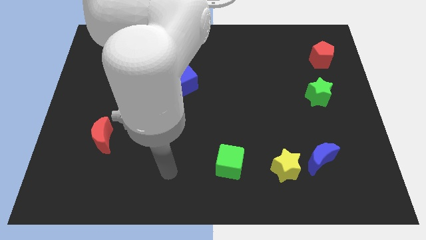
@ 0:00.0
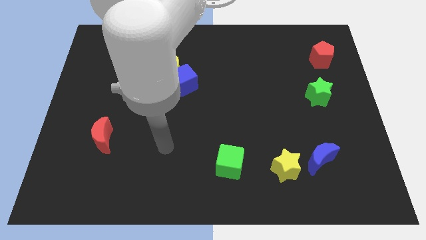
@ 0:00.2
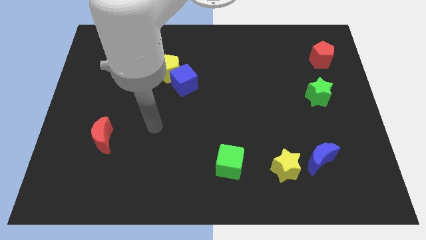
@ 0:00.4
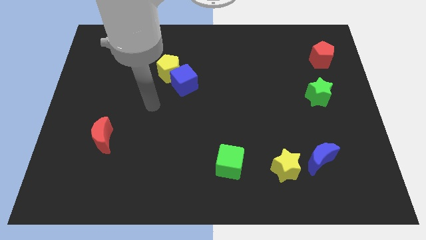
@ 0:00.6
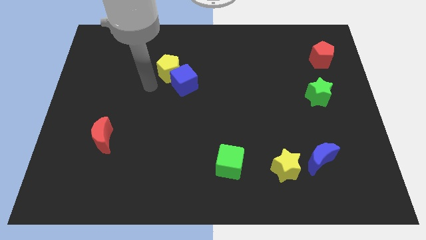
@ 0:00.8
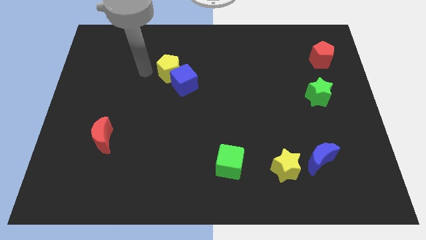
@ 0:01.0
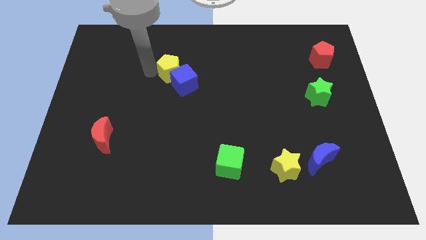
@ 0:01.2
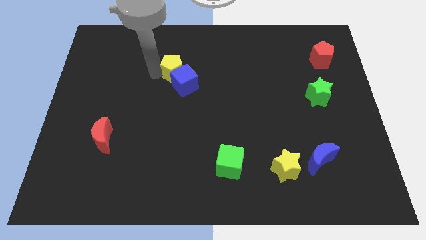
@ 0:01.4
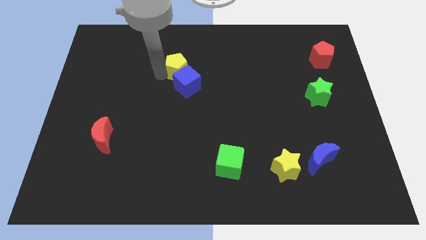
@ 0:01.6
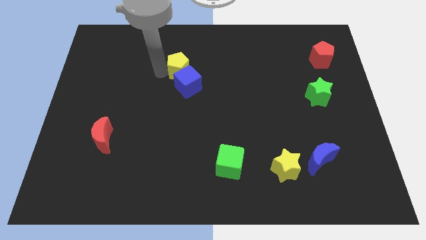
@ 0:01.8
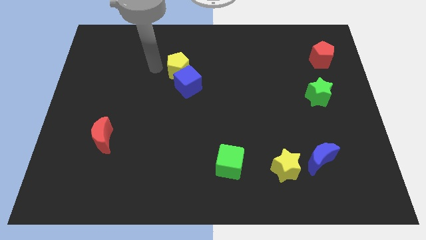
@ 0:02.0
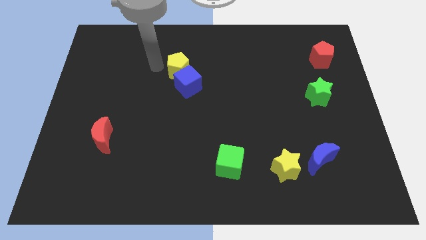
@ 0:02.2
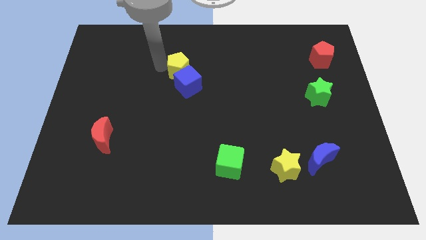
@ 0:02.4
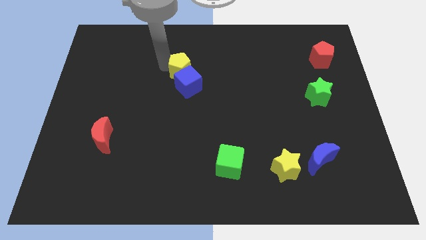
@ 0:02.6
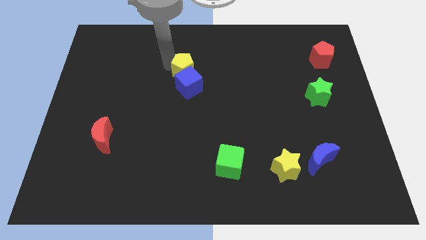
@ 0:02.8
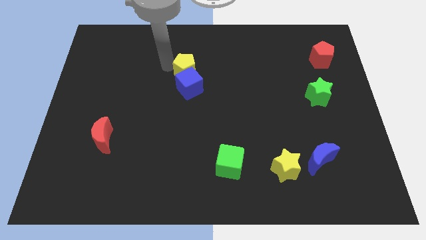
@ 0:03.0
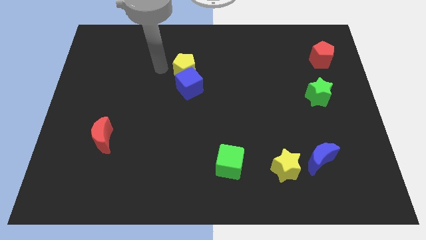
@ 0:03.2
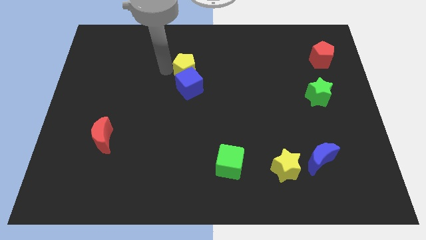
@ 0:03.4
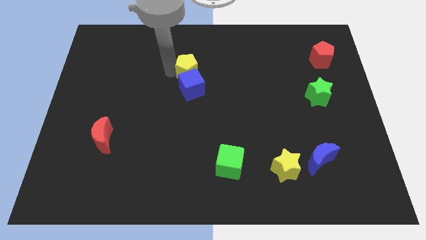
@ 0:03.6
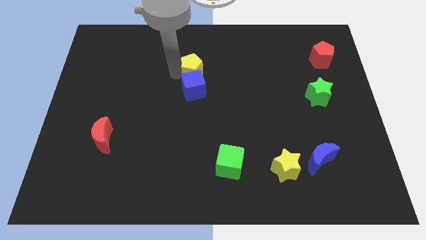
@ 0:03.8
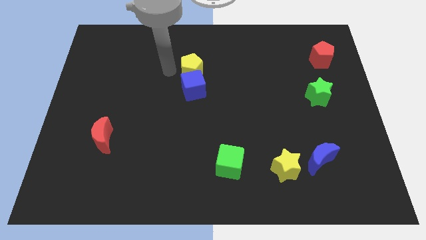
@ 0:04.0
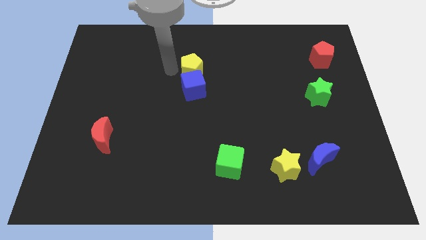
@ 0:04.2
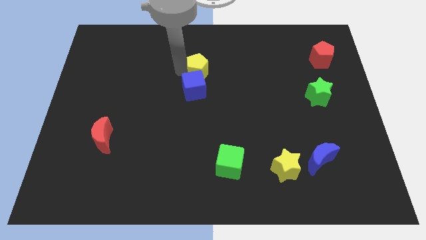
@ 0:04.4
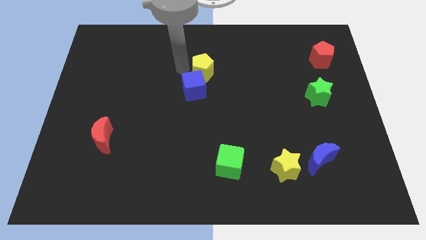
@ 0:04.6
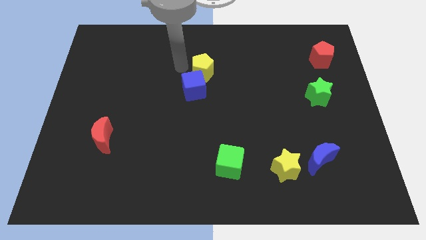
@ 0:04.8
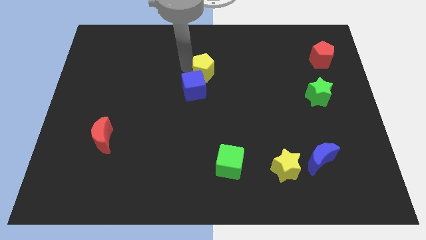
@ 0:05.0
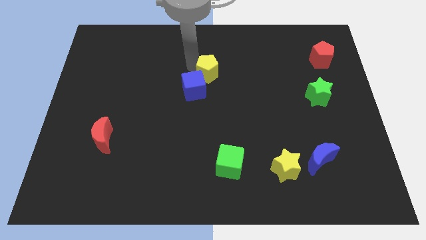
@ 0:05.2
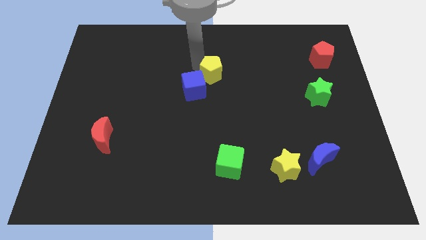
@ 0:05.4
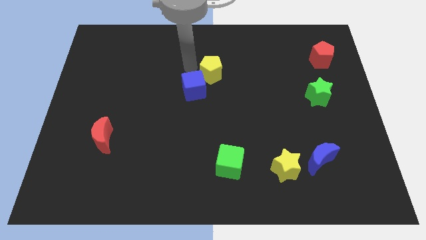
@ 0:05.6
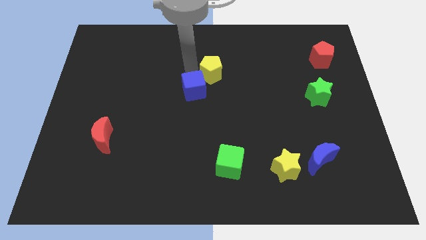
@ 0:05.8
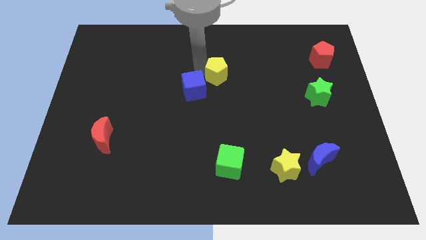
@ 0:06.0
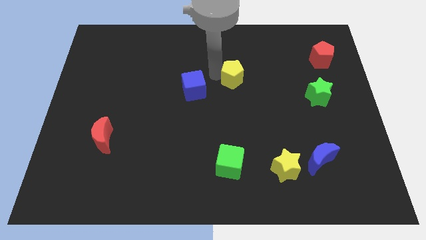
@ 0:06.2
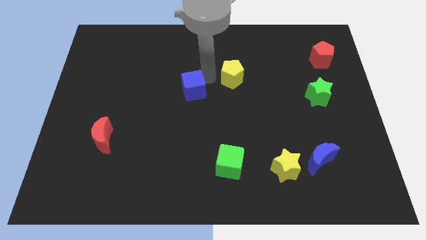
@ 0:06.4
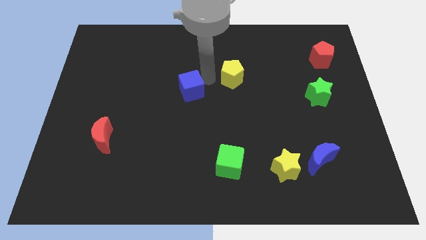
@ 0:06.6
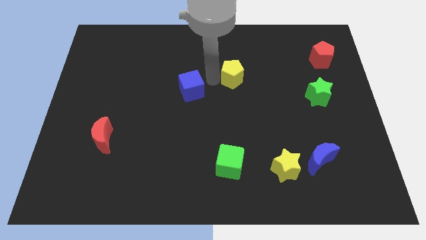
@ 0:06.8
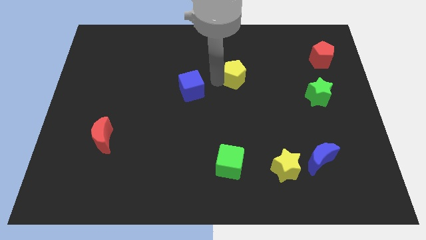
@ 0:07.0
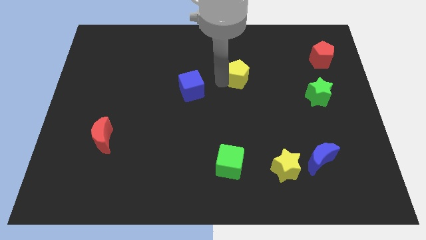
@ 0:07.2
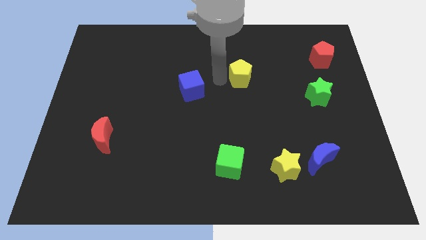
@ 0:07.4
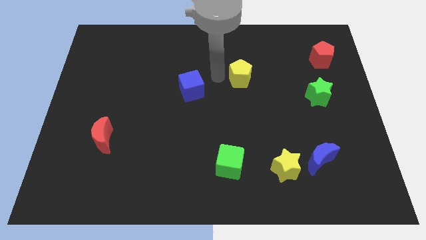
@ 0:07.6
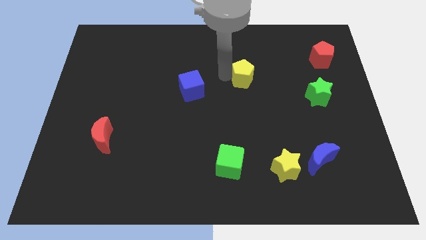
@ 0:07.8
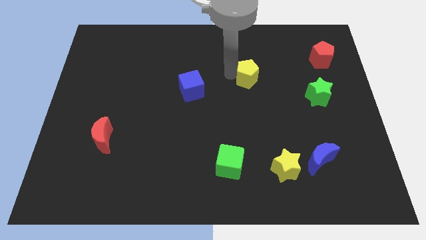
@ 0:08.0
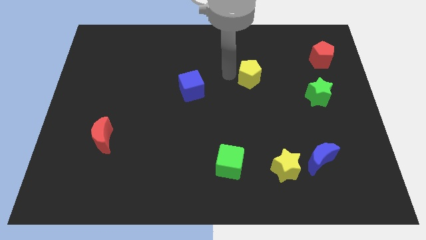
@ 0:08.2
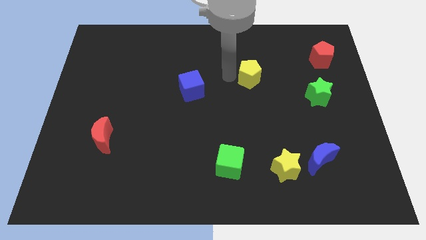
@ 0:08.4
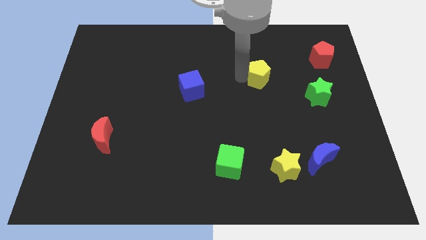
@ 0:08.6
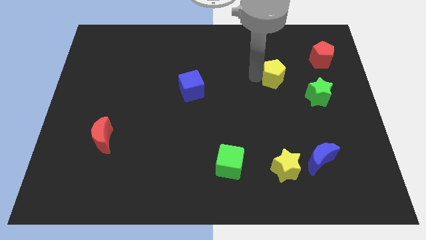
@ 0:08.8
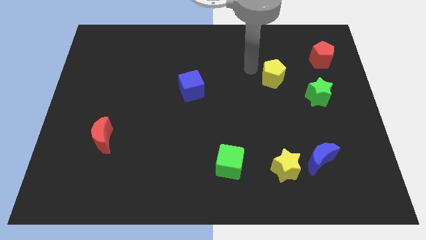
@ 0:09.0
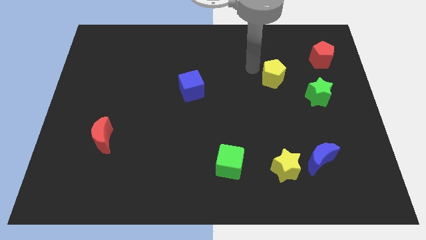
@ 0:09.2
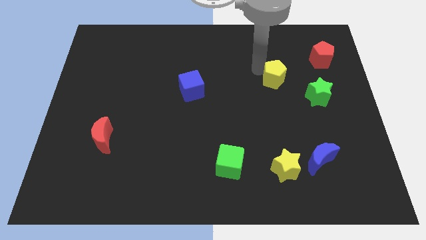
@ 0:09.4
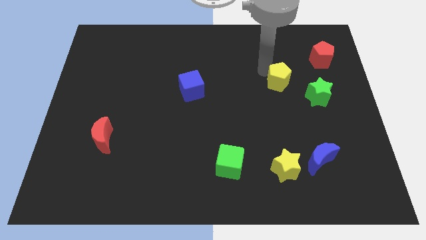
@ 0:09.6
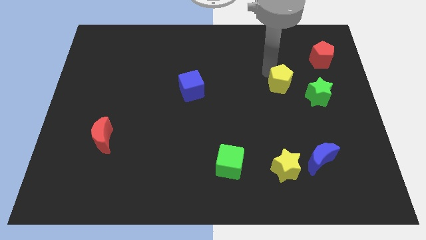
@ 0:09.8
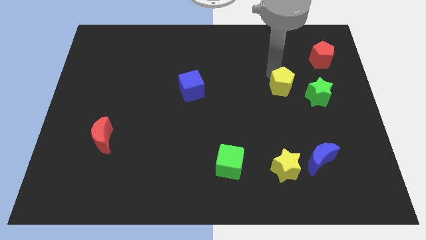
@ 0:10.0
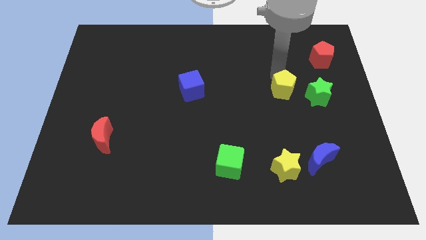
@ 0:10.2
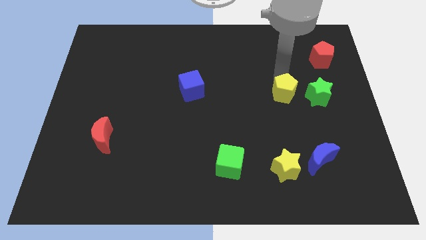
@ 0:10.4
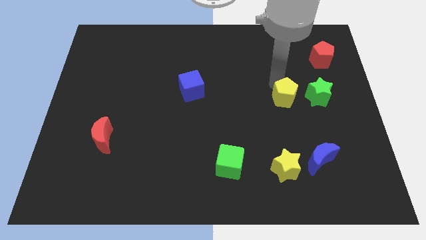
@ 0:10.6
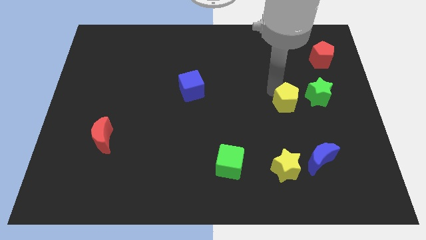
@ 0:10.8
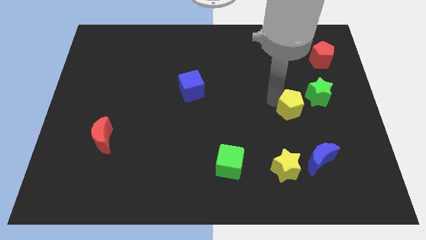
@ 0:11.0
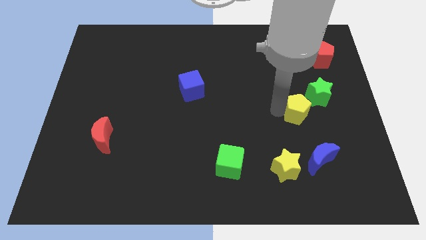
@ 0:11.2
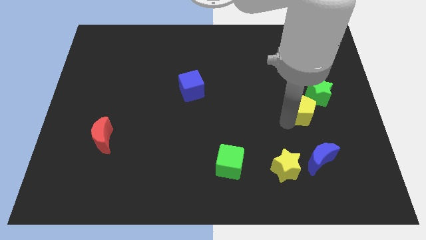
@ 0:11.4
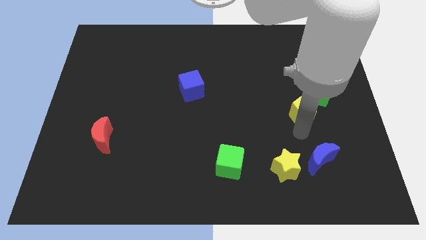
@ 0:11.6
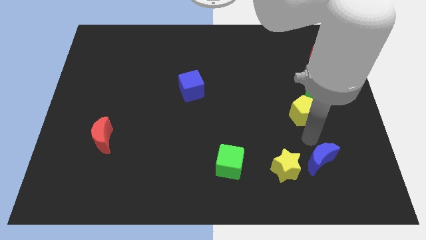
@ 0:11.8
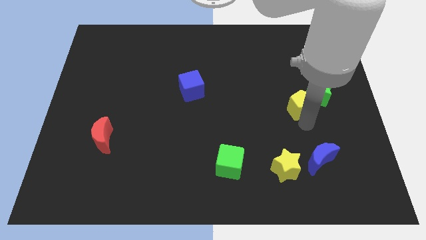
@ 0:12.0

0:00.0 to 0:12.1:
put the yellow pentagon next to the green star

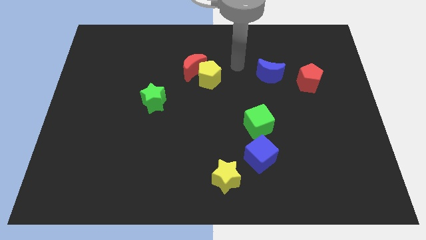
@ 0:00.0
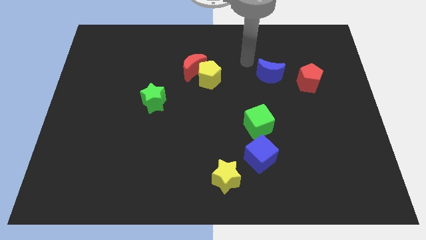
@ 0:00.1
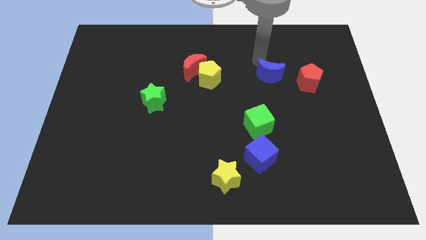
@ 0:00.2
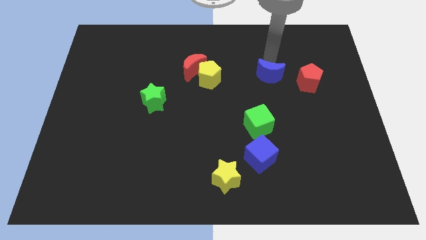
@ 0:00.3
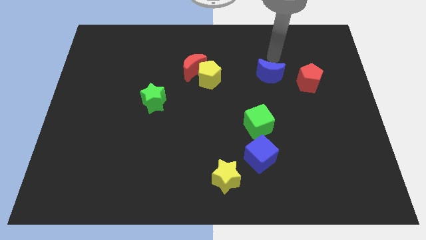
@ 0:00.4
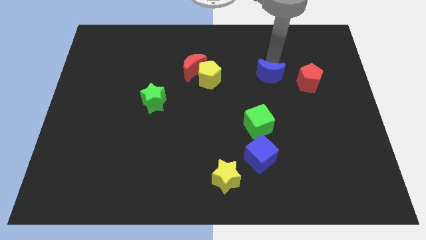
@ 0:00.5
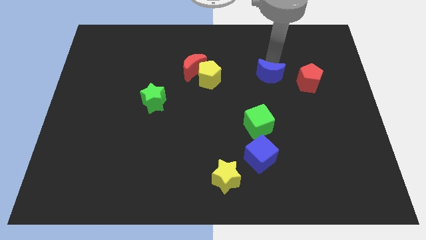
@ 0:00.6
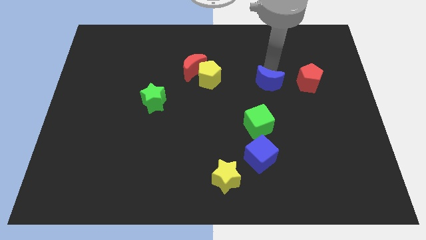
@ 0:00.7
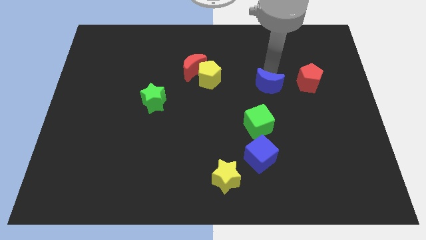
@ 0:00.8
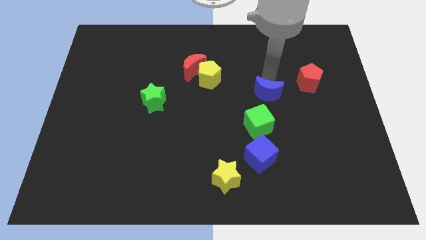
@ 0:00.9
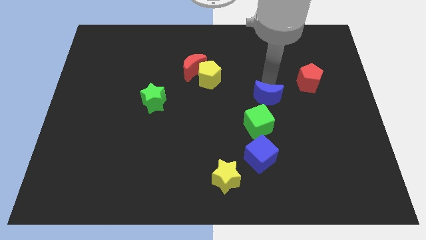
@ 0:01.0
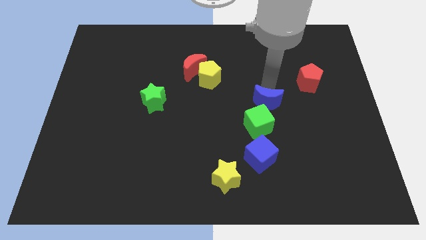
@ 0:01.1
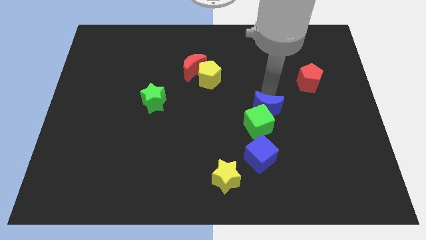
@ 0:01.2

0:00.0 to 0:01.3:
put the blue moon towards the green cube
